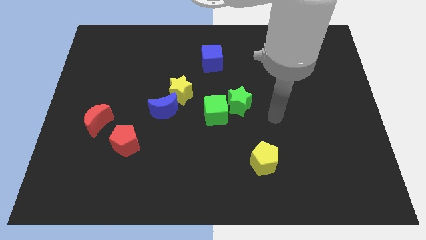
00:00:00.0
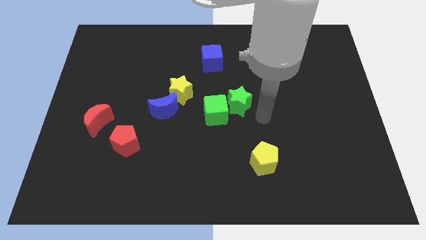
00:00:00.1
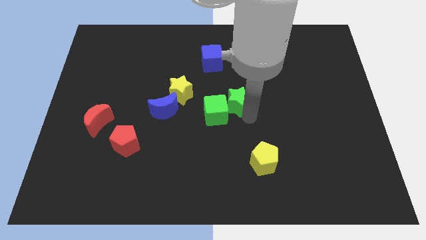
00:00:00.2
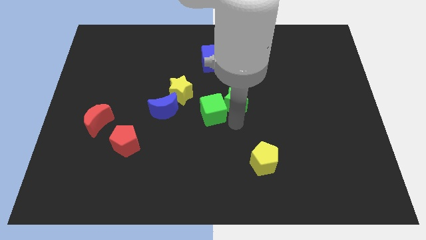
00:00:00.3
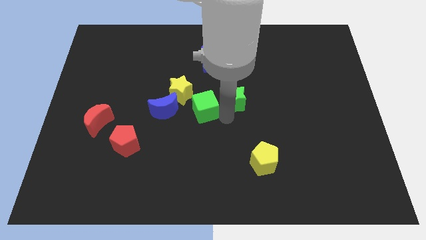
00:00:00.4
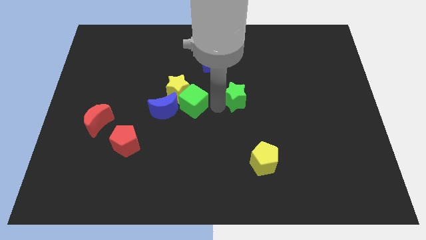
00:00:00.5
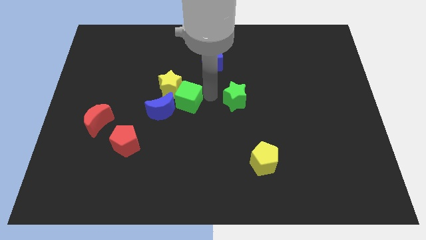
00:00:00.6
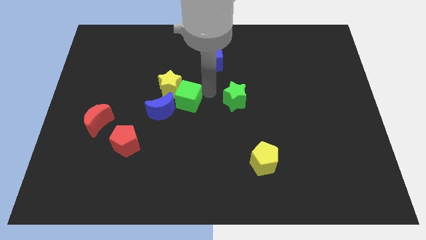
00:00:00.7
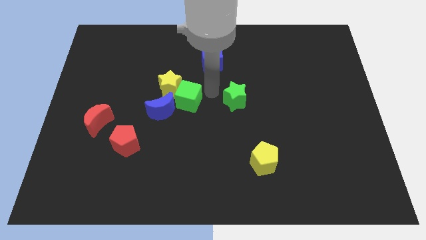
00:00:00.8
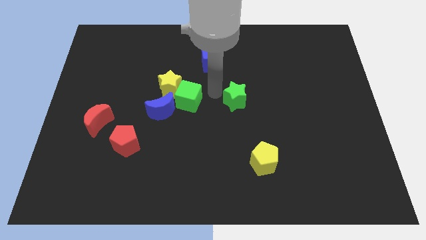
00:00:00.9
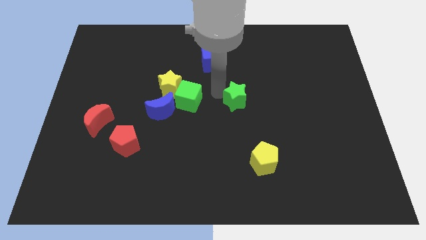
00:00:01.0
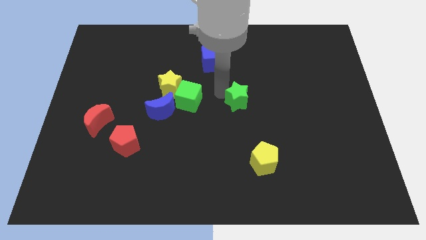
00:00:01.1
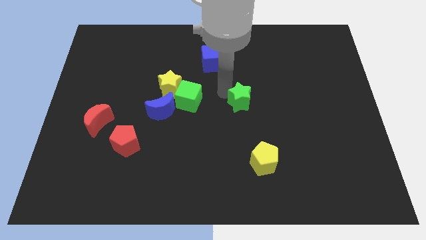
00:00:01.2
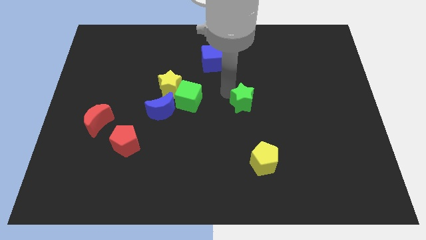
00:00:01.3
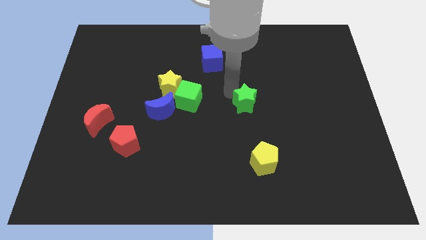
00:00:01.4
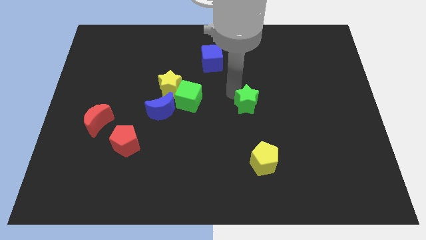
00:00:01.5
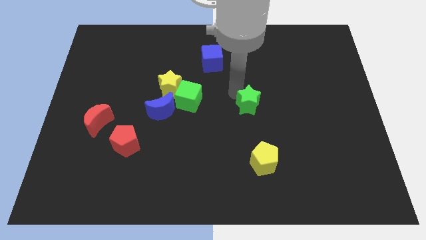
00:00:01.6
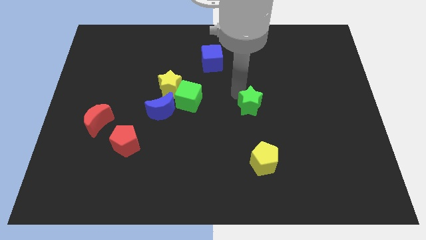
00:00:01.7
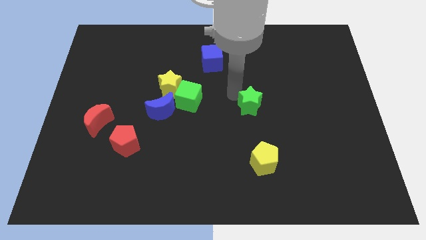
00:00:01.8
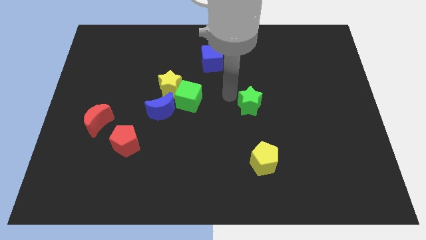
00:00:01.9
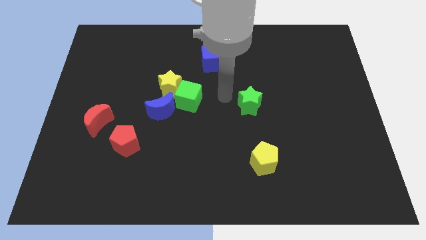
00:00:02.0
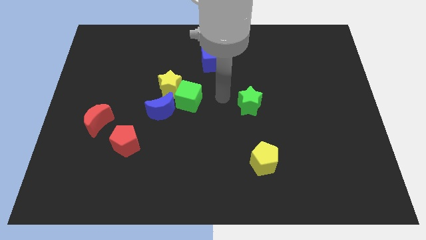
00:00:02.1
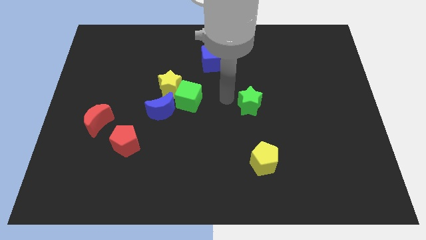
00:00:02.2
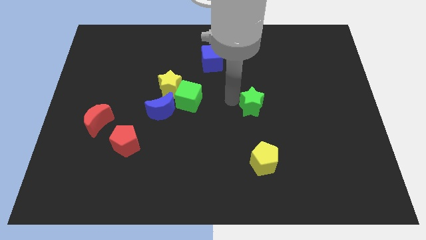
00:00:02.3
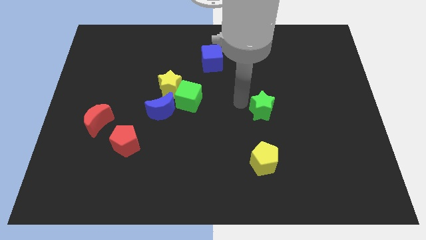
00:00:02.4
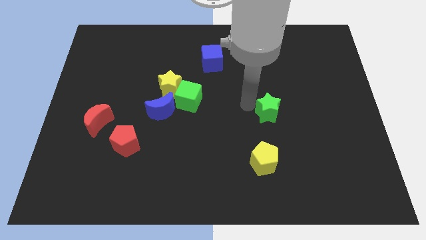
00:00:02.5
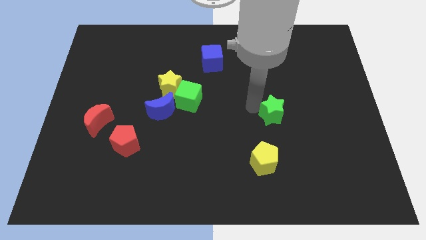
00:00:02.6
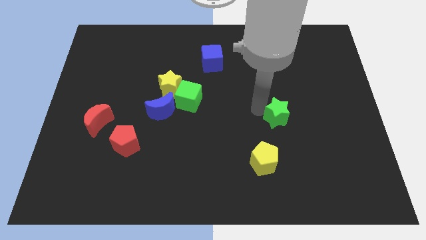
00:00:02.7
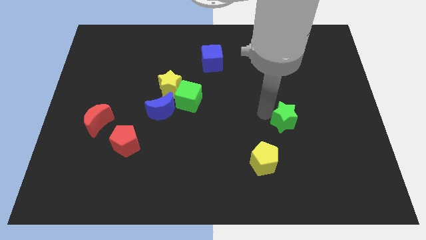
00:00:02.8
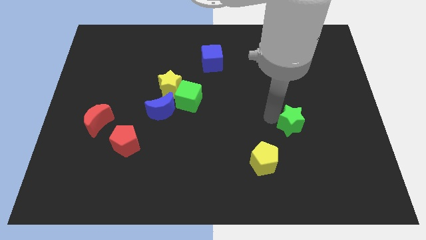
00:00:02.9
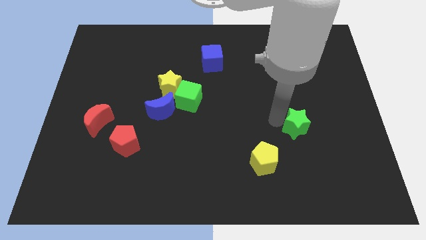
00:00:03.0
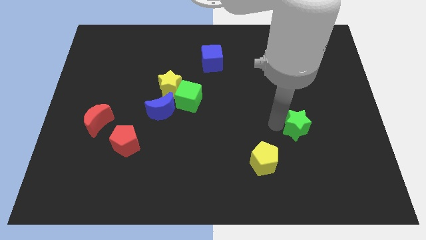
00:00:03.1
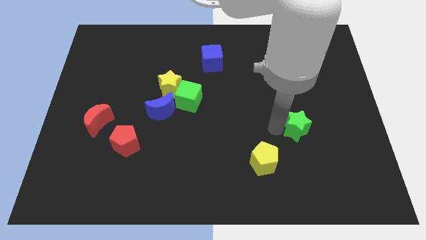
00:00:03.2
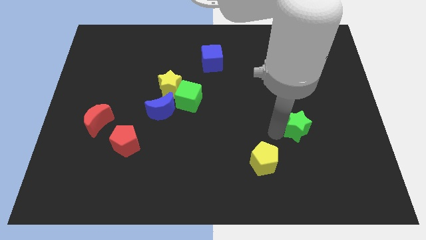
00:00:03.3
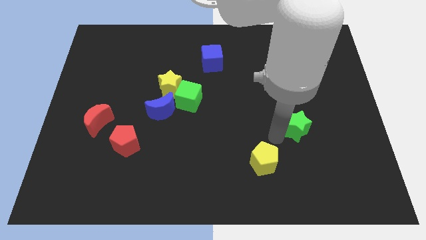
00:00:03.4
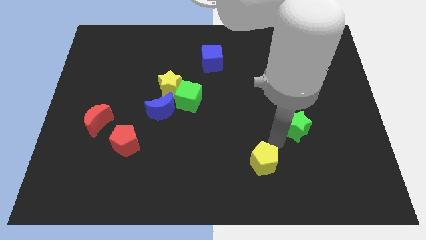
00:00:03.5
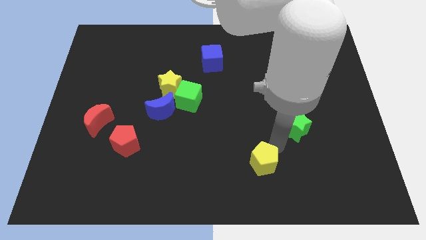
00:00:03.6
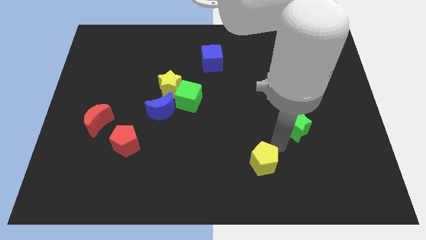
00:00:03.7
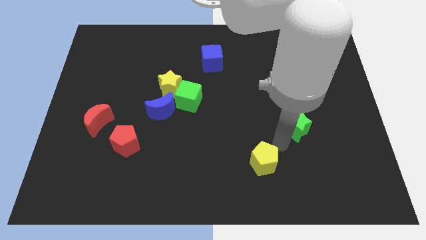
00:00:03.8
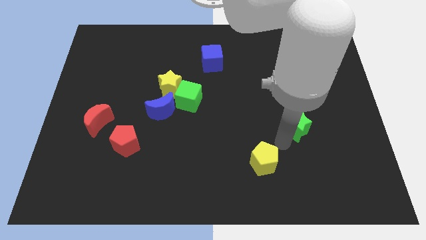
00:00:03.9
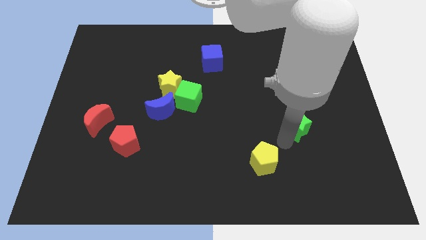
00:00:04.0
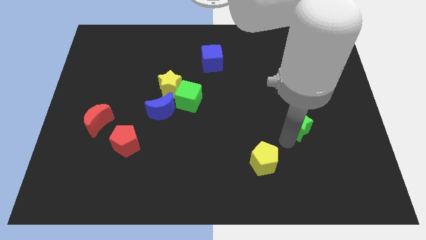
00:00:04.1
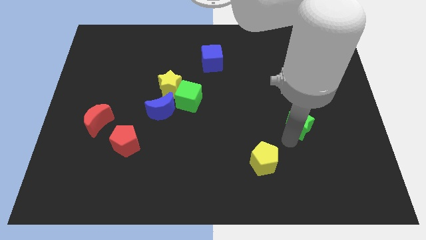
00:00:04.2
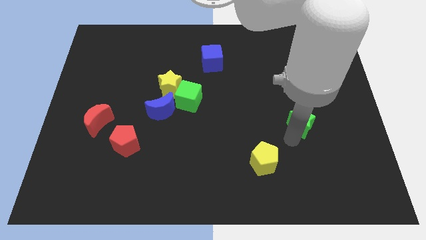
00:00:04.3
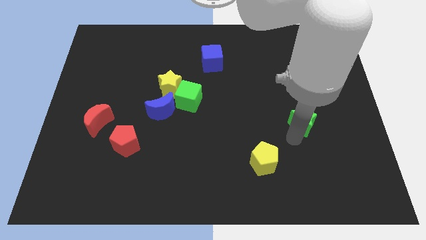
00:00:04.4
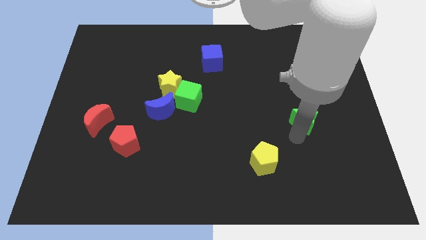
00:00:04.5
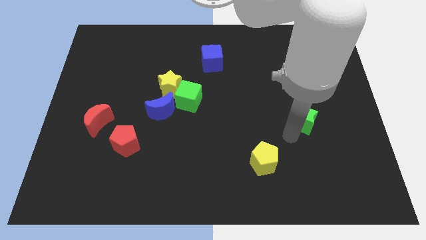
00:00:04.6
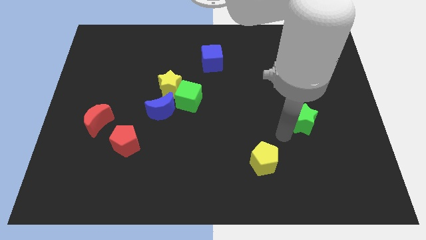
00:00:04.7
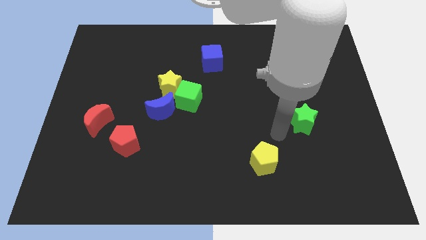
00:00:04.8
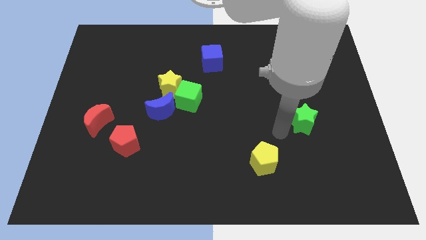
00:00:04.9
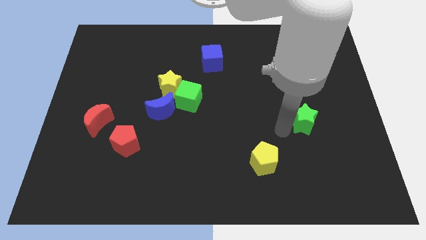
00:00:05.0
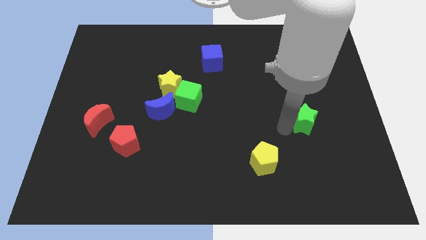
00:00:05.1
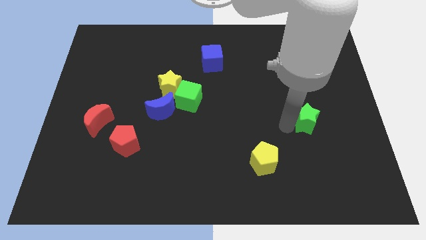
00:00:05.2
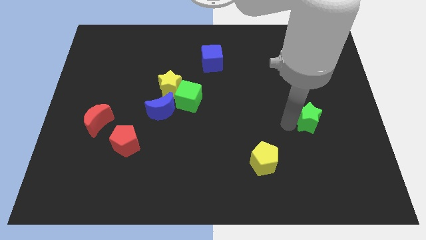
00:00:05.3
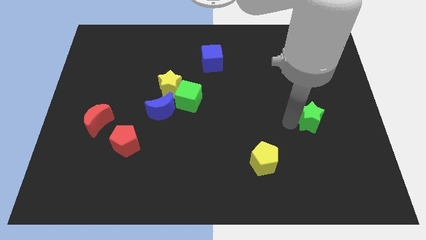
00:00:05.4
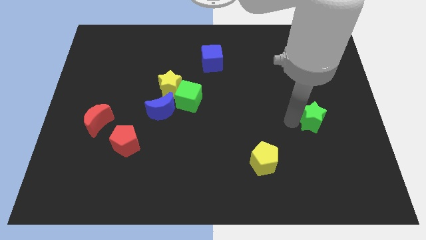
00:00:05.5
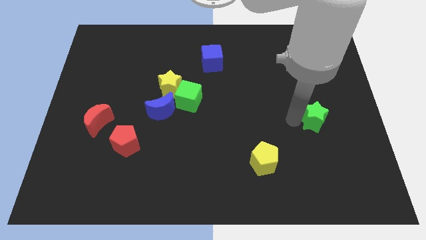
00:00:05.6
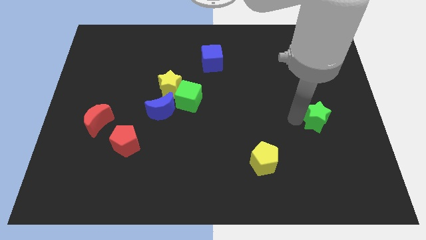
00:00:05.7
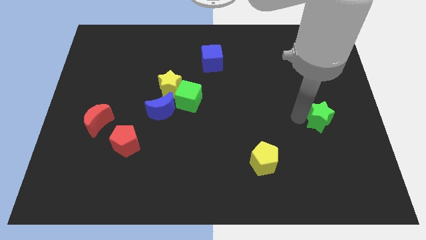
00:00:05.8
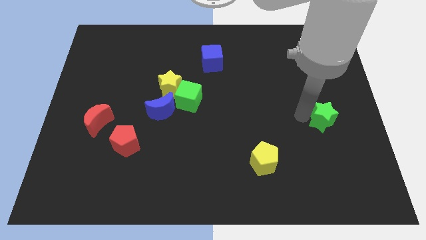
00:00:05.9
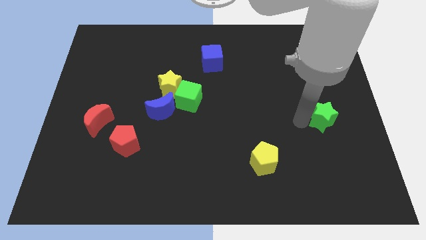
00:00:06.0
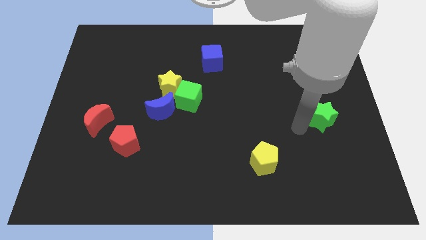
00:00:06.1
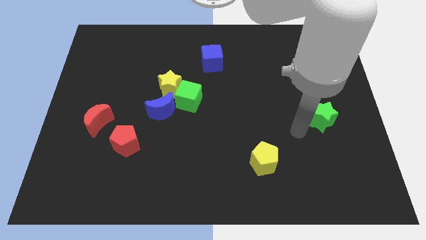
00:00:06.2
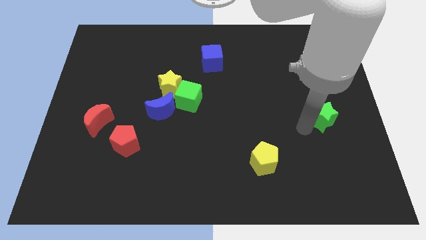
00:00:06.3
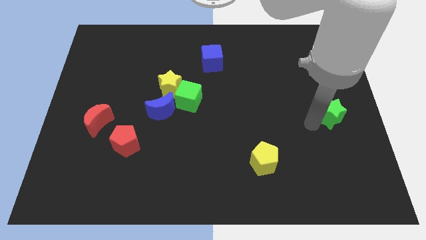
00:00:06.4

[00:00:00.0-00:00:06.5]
move the green star to the center right
